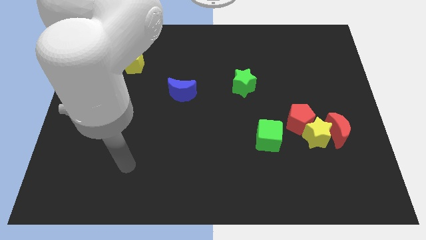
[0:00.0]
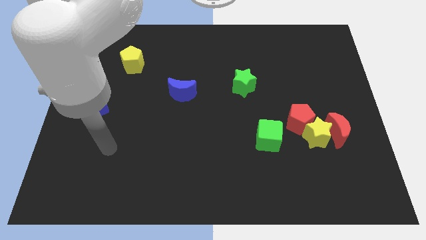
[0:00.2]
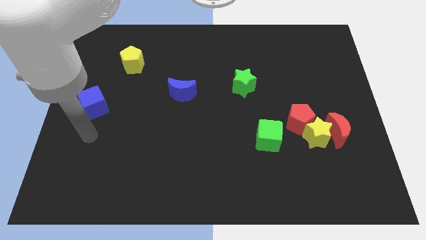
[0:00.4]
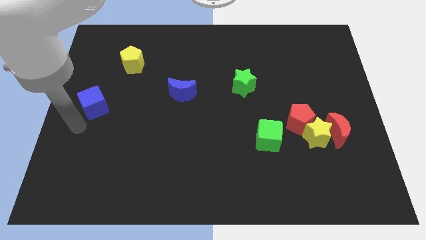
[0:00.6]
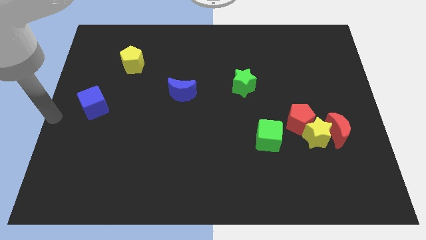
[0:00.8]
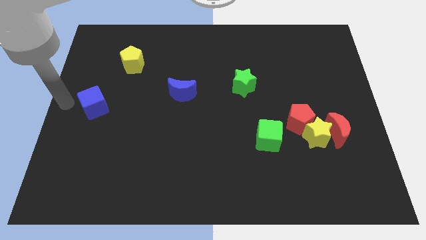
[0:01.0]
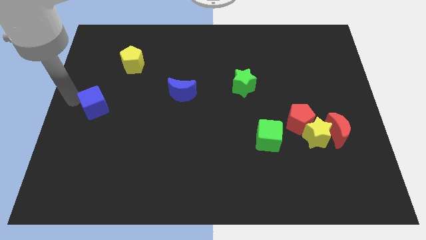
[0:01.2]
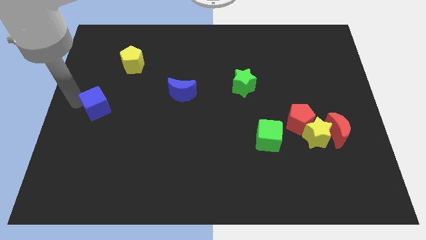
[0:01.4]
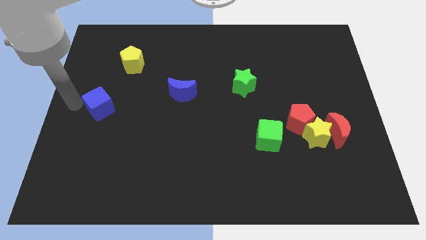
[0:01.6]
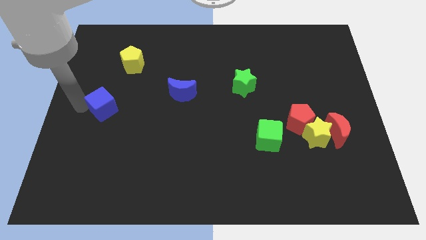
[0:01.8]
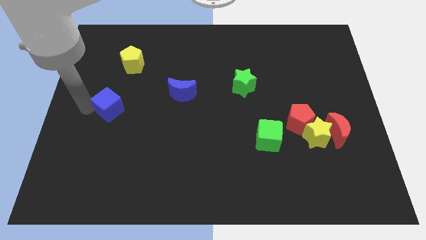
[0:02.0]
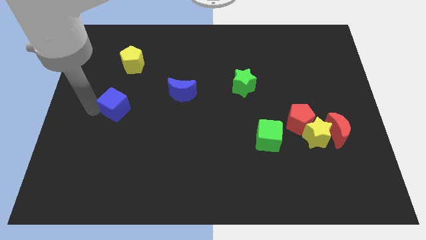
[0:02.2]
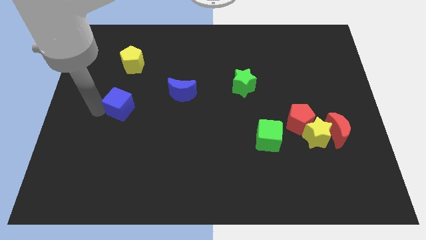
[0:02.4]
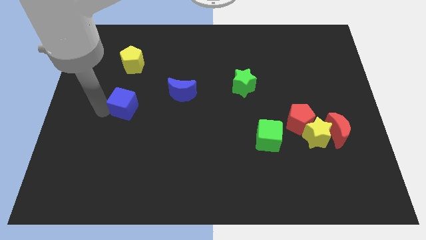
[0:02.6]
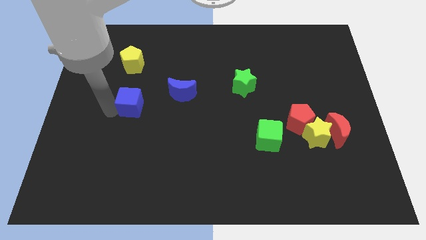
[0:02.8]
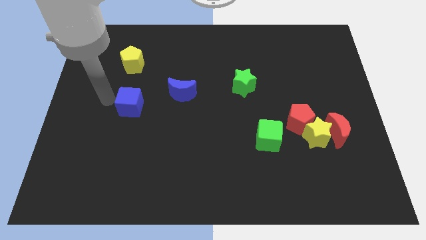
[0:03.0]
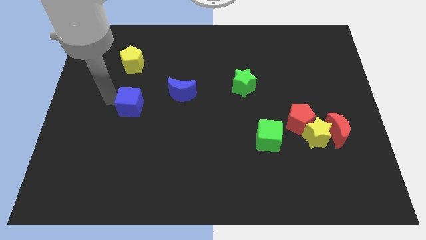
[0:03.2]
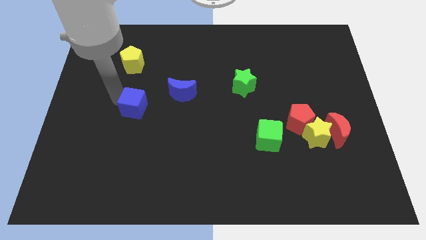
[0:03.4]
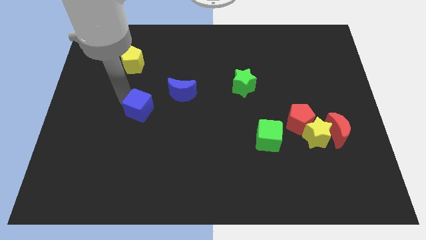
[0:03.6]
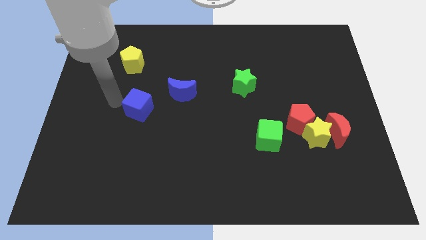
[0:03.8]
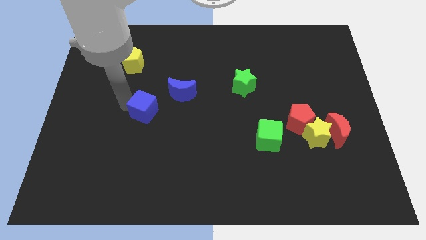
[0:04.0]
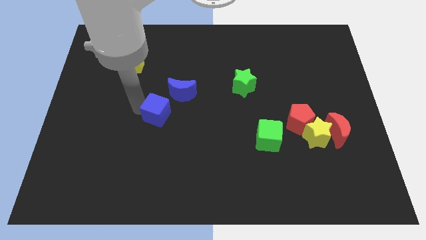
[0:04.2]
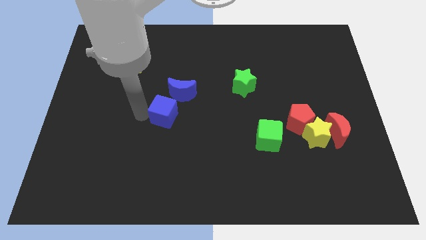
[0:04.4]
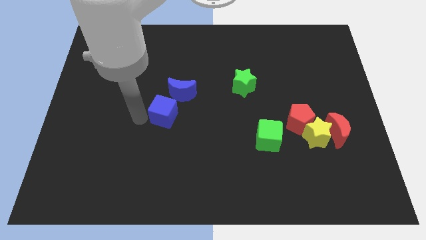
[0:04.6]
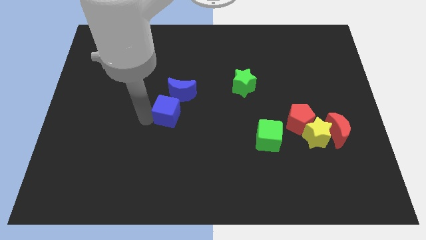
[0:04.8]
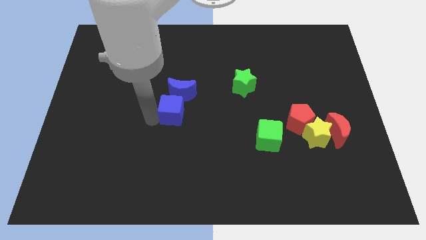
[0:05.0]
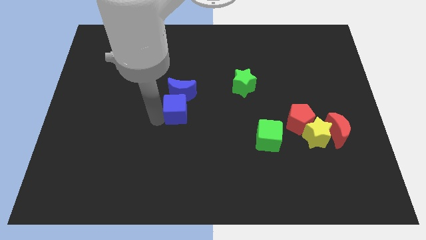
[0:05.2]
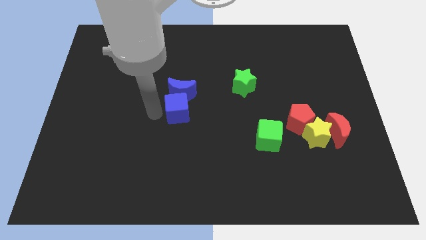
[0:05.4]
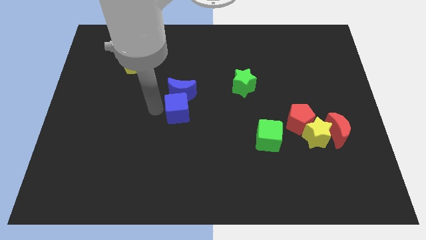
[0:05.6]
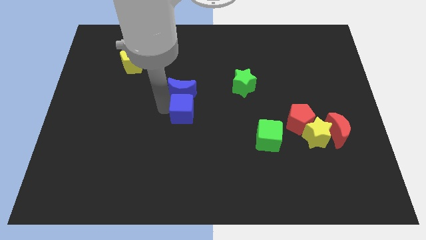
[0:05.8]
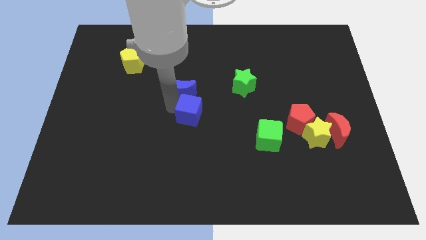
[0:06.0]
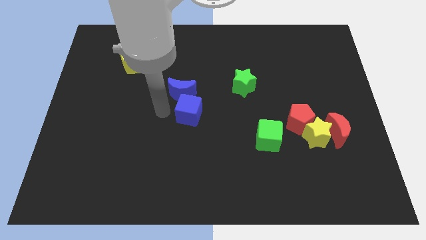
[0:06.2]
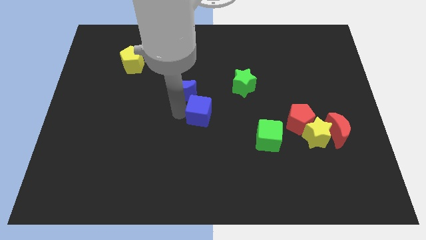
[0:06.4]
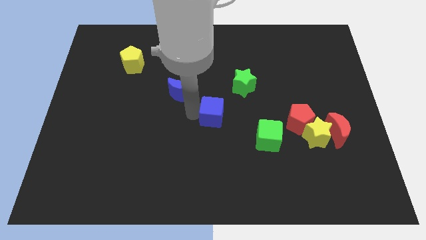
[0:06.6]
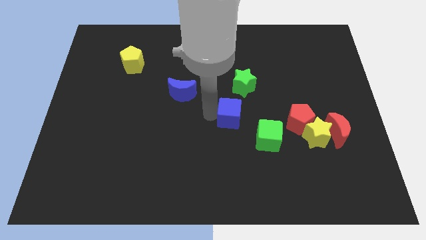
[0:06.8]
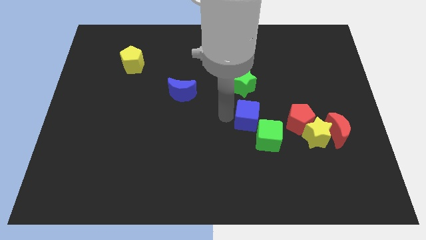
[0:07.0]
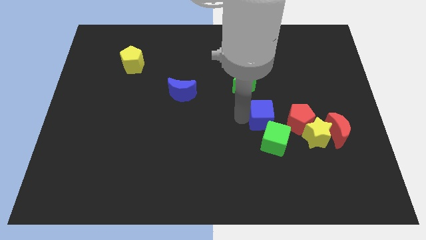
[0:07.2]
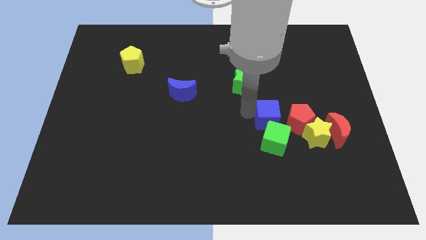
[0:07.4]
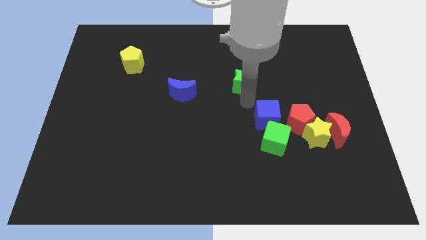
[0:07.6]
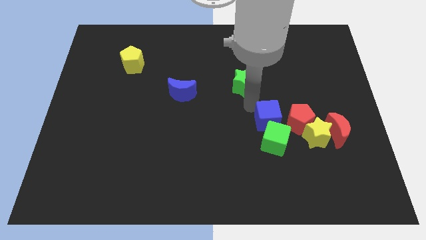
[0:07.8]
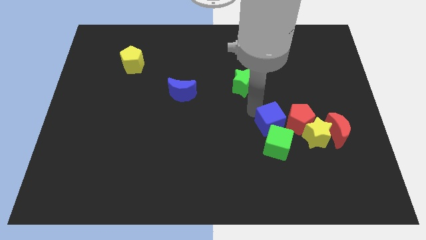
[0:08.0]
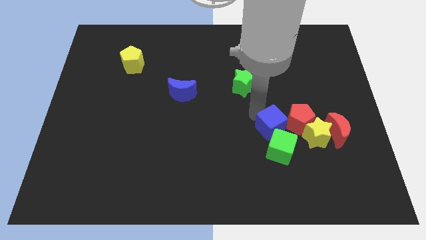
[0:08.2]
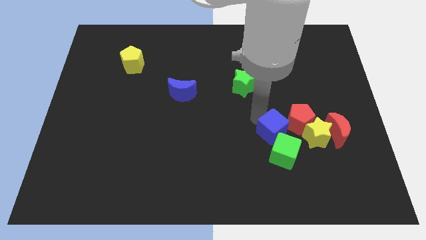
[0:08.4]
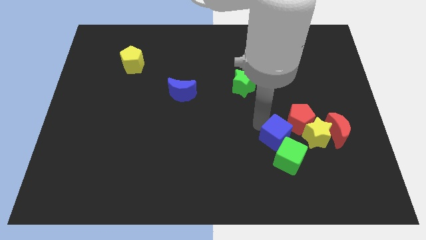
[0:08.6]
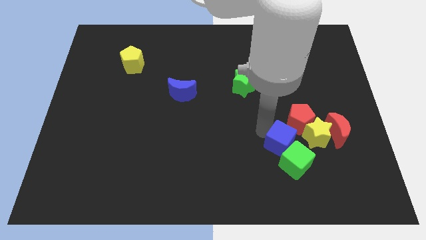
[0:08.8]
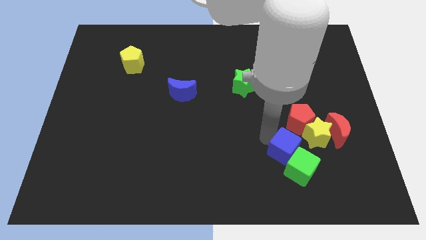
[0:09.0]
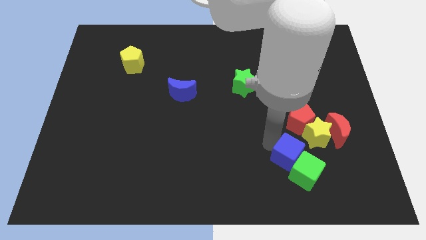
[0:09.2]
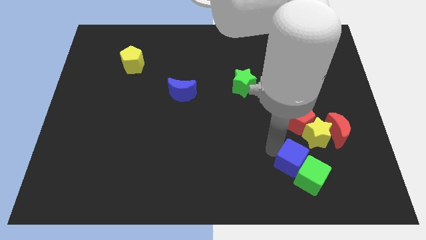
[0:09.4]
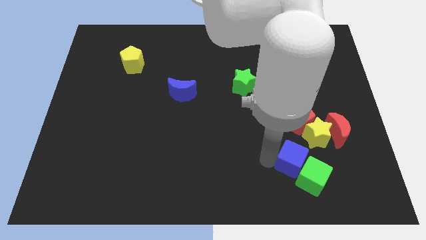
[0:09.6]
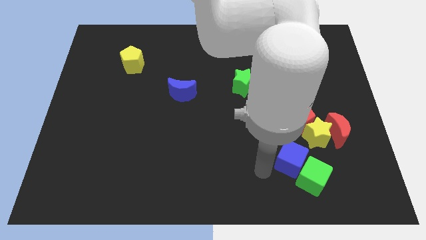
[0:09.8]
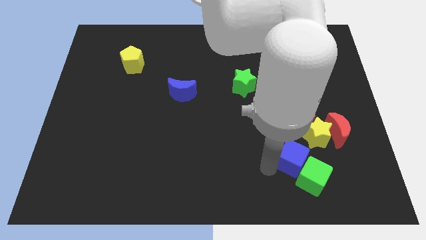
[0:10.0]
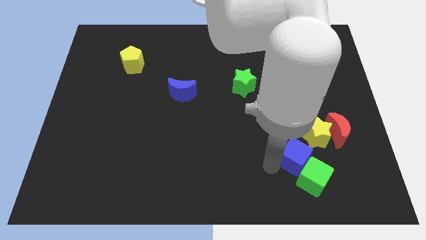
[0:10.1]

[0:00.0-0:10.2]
move the blue cube to the bottom left side of the red moon

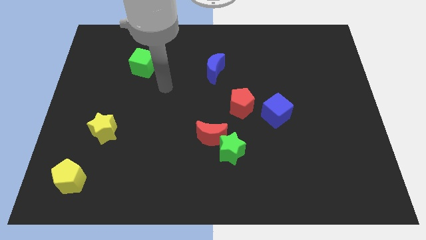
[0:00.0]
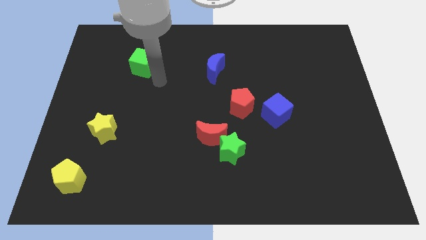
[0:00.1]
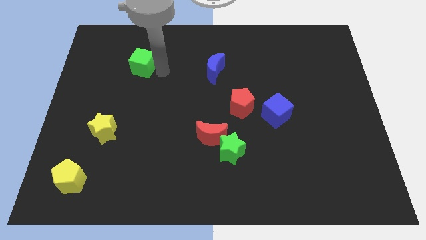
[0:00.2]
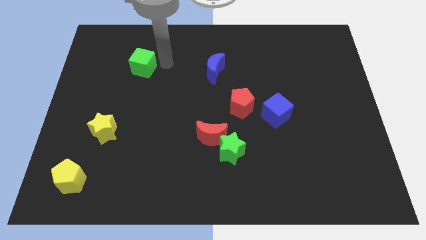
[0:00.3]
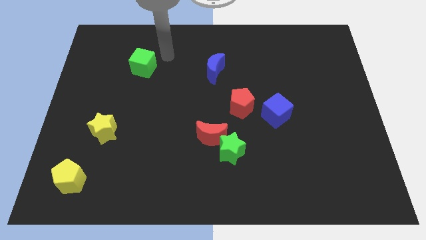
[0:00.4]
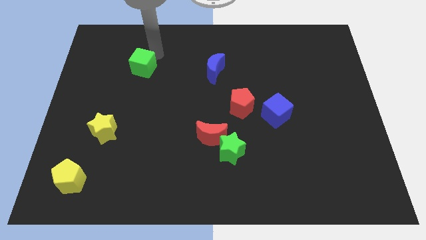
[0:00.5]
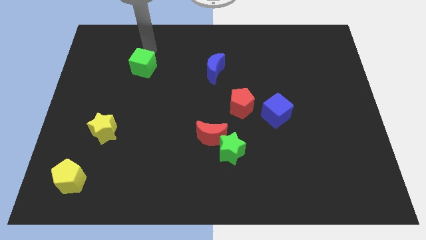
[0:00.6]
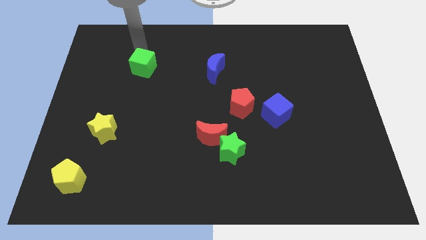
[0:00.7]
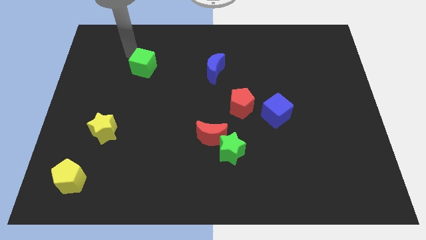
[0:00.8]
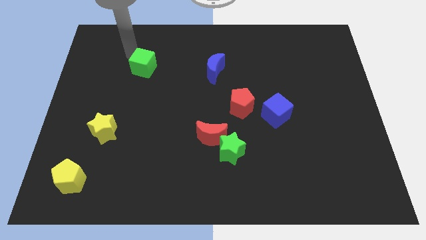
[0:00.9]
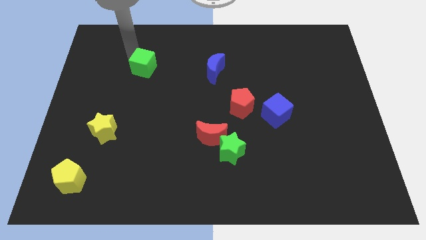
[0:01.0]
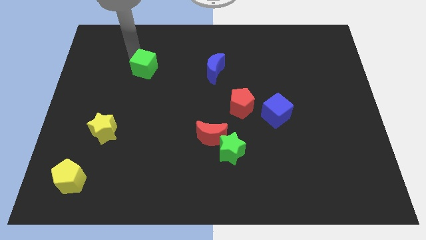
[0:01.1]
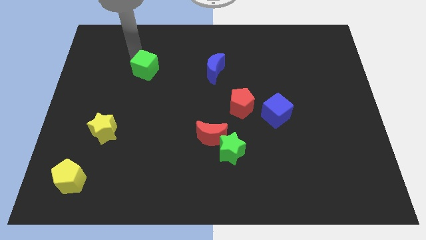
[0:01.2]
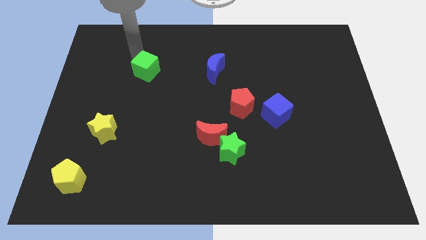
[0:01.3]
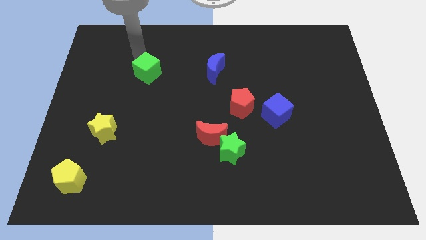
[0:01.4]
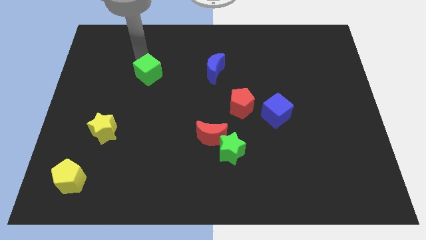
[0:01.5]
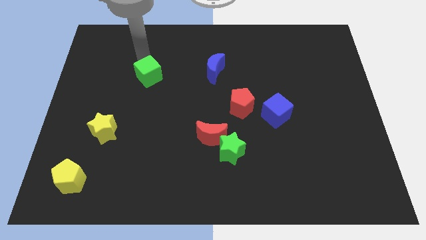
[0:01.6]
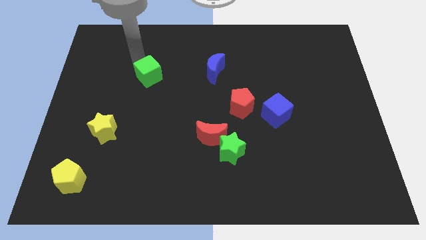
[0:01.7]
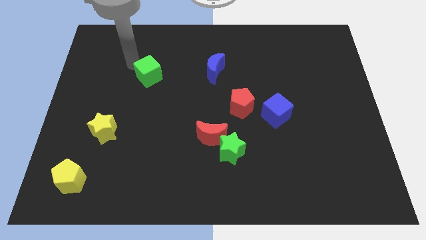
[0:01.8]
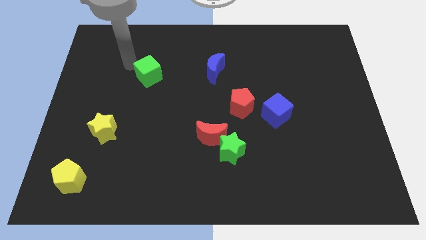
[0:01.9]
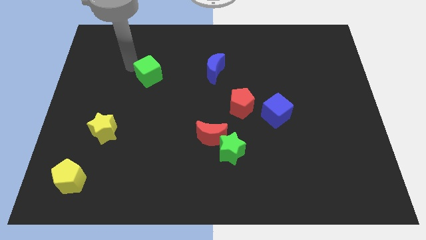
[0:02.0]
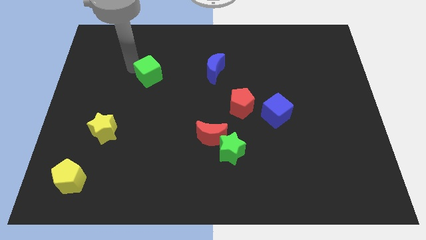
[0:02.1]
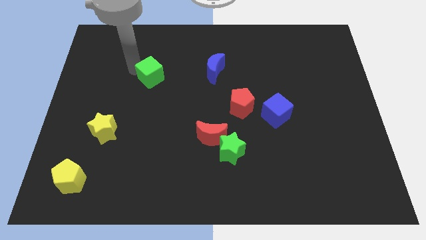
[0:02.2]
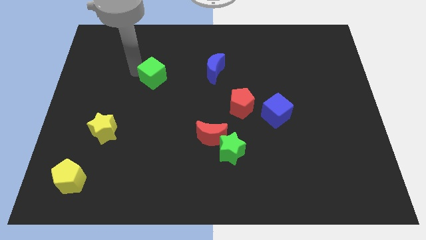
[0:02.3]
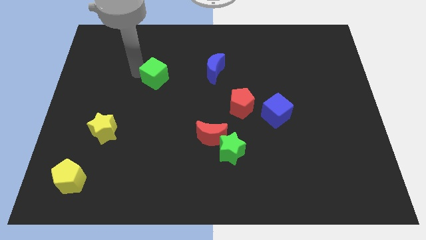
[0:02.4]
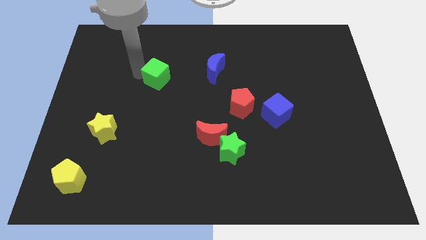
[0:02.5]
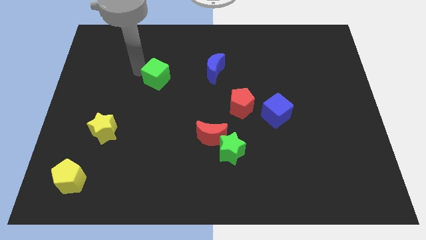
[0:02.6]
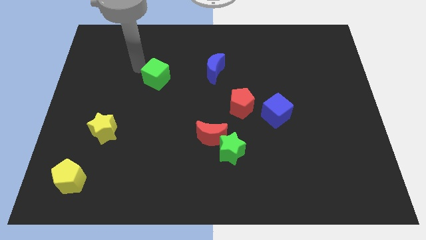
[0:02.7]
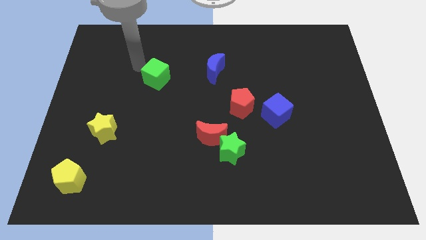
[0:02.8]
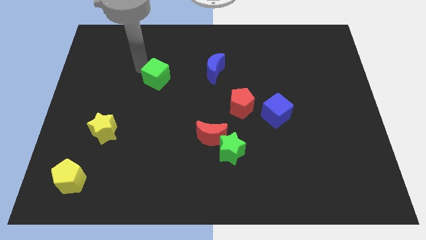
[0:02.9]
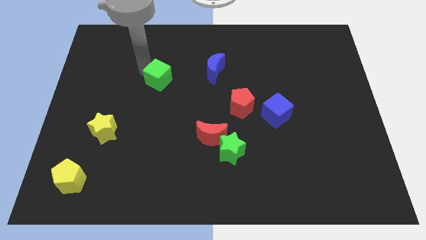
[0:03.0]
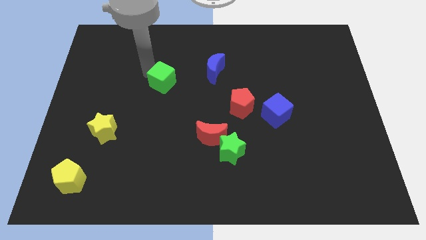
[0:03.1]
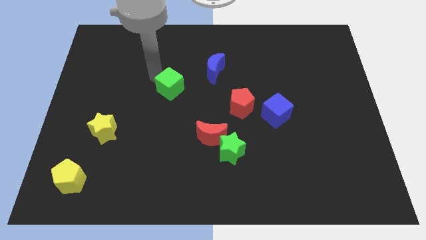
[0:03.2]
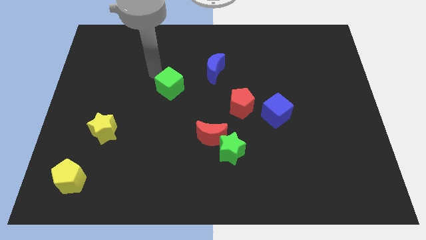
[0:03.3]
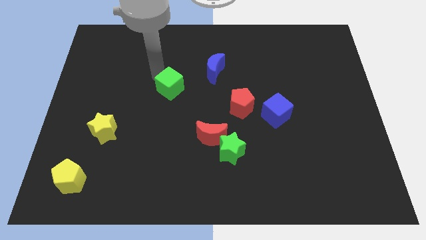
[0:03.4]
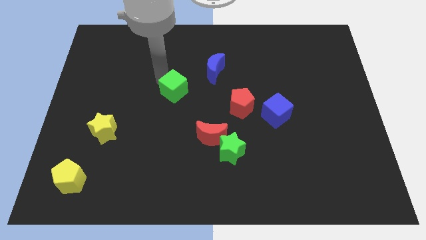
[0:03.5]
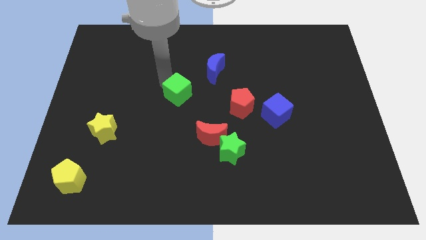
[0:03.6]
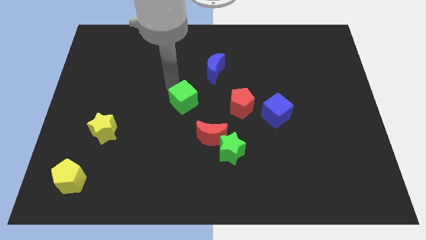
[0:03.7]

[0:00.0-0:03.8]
put the green cube to the top left of the red moon
